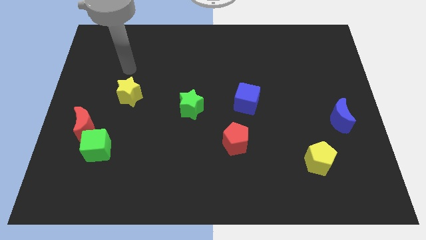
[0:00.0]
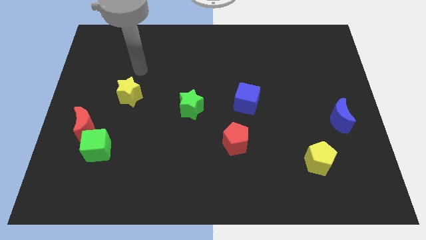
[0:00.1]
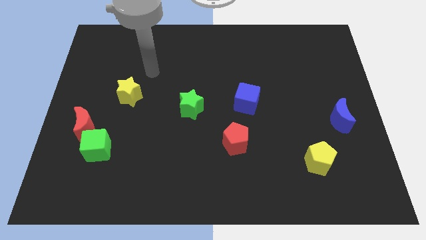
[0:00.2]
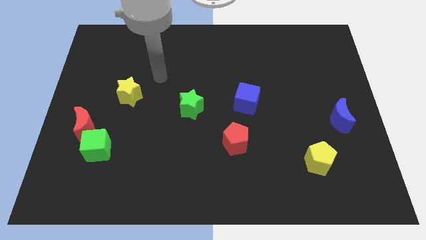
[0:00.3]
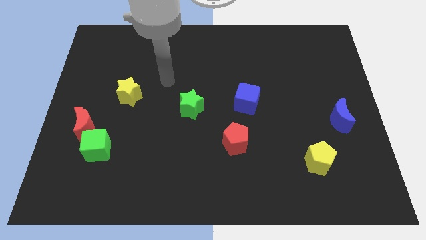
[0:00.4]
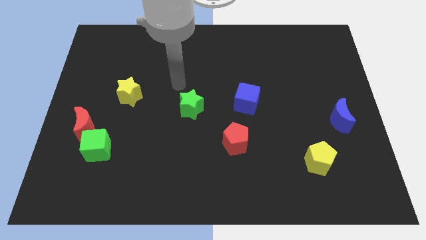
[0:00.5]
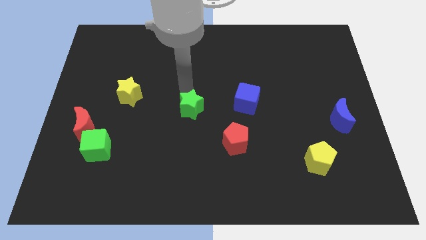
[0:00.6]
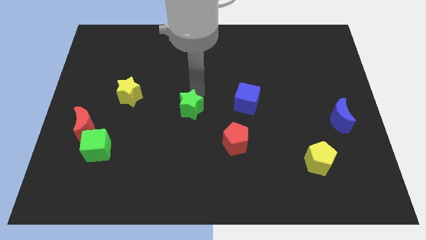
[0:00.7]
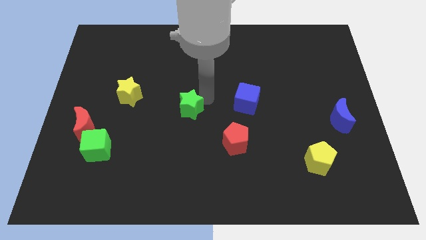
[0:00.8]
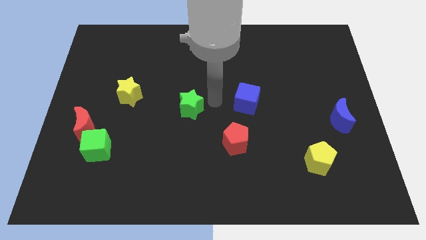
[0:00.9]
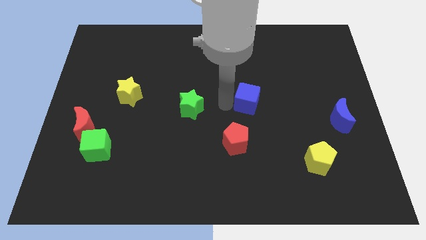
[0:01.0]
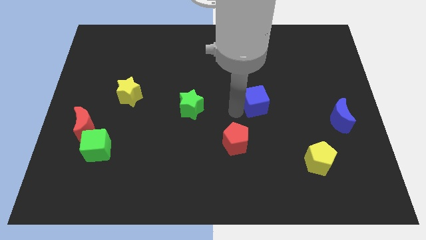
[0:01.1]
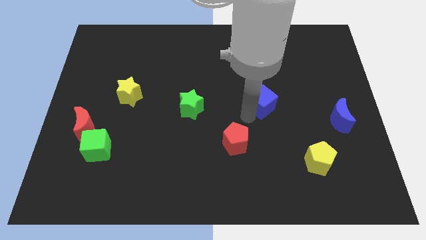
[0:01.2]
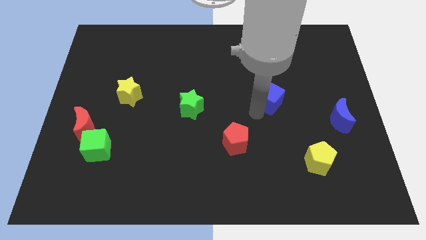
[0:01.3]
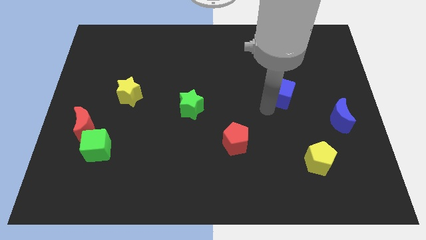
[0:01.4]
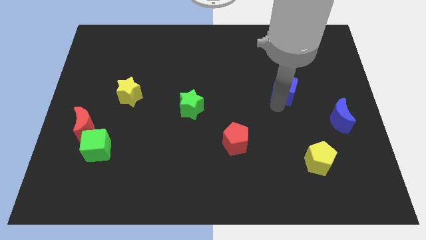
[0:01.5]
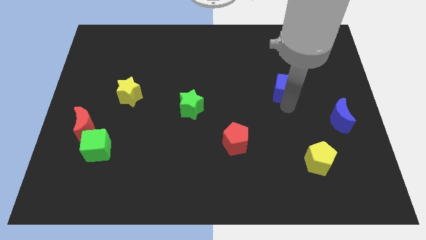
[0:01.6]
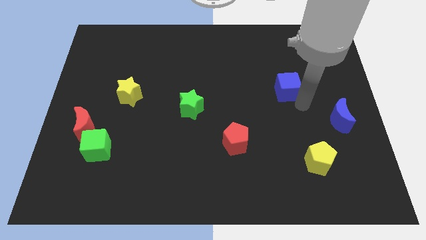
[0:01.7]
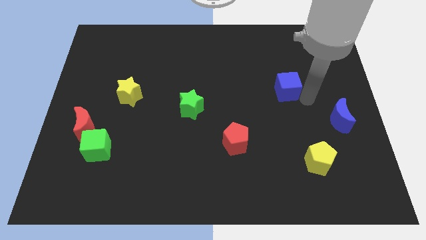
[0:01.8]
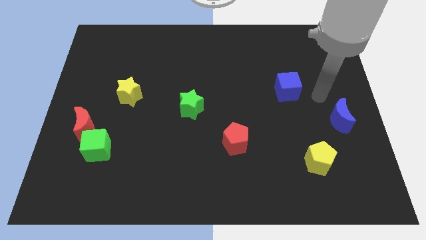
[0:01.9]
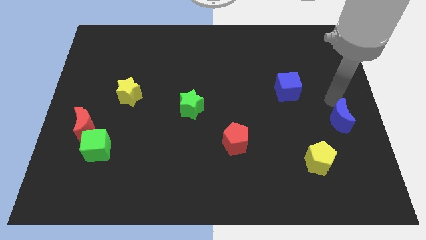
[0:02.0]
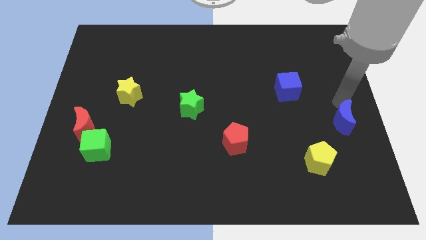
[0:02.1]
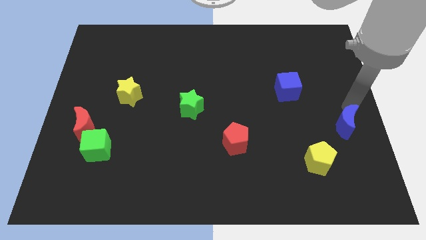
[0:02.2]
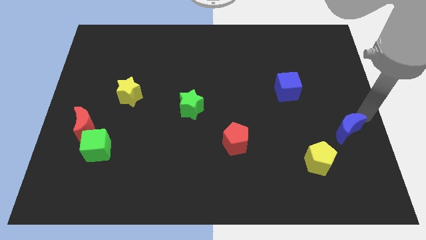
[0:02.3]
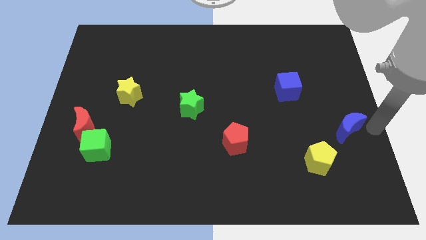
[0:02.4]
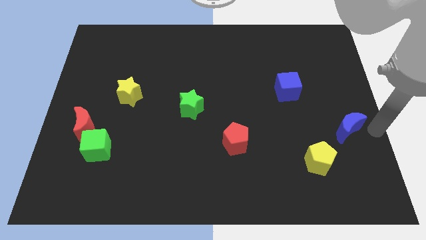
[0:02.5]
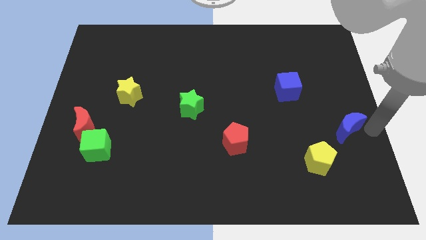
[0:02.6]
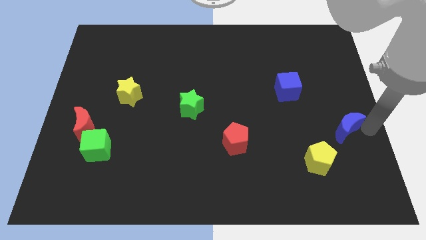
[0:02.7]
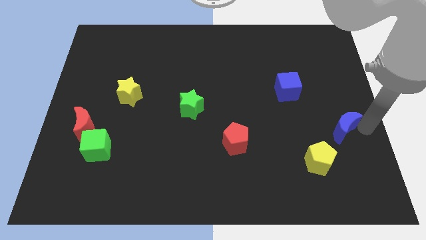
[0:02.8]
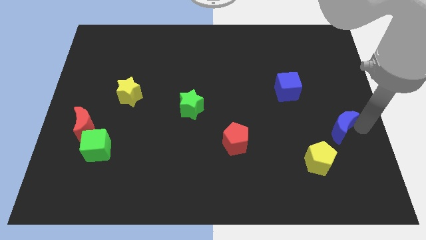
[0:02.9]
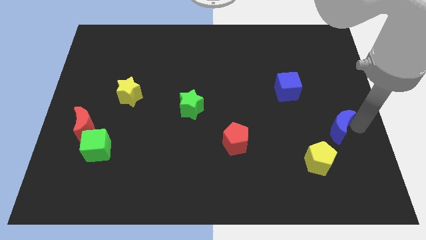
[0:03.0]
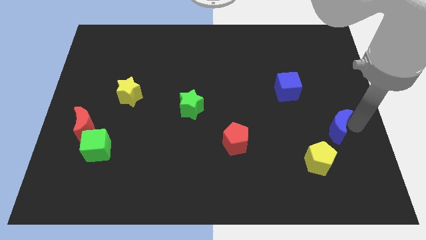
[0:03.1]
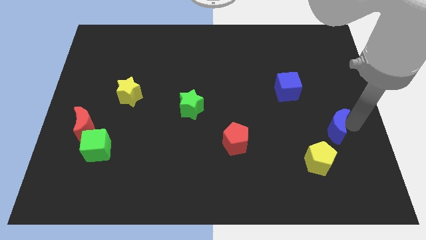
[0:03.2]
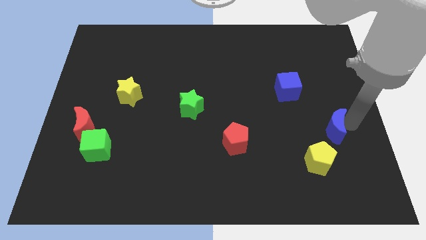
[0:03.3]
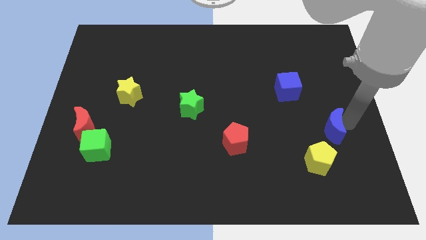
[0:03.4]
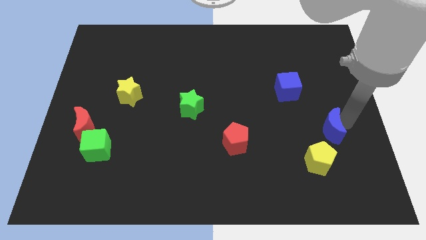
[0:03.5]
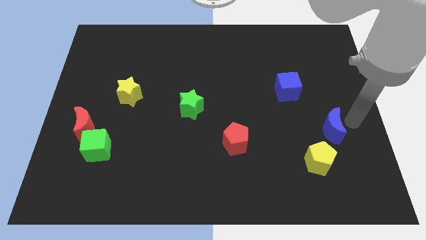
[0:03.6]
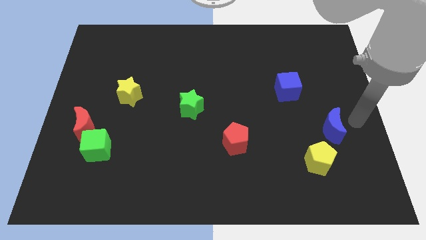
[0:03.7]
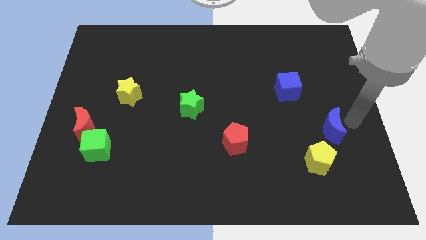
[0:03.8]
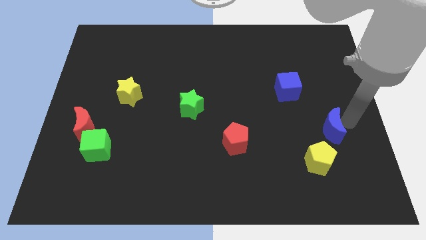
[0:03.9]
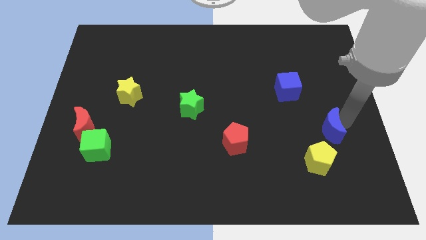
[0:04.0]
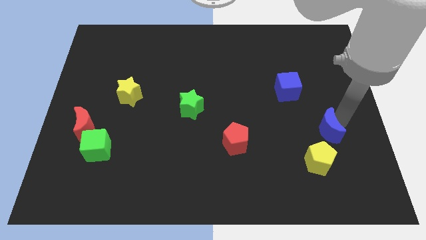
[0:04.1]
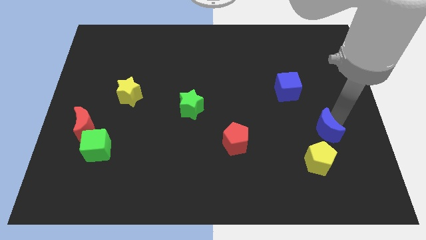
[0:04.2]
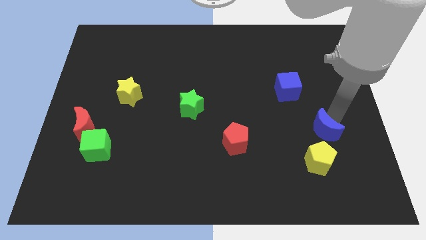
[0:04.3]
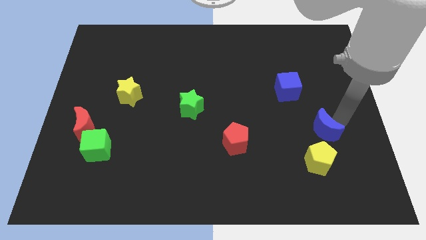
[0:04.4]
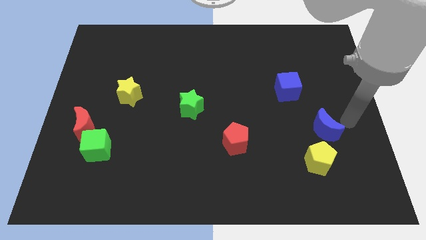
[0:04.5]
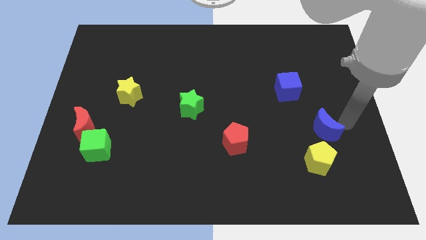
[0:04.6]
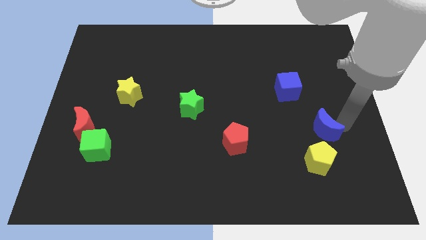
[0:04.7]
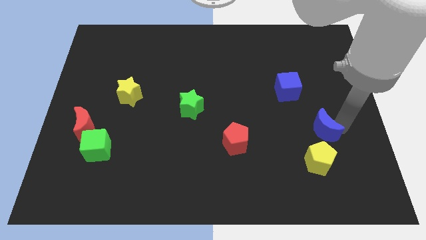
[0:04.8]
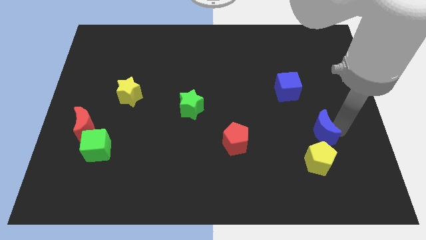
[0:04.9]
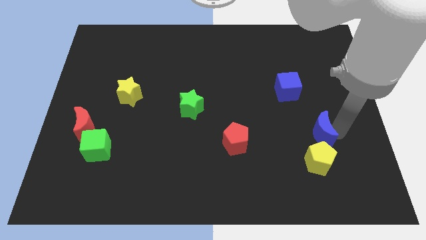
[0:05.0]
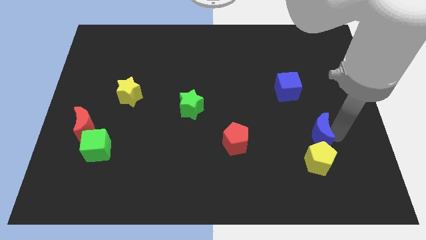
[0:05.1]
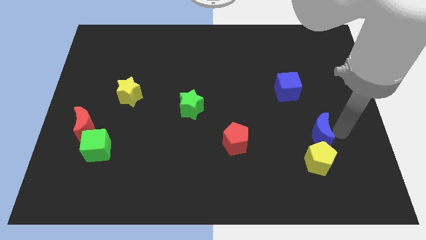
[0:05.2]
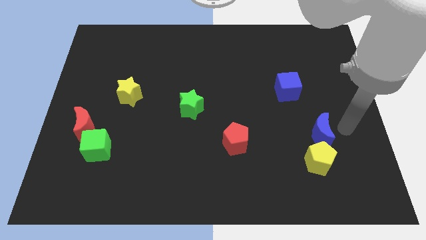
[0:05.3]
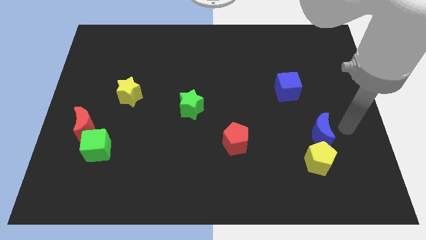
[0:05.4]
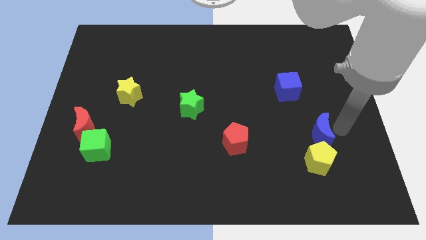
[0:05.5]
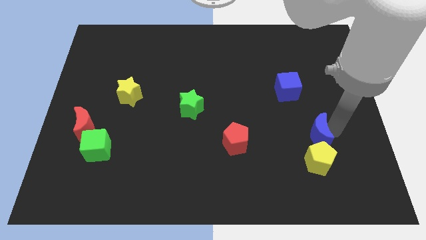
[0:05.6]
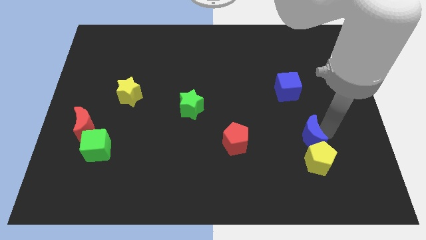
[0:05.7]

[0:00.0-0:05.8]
slide the blue moon diagonally up and to the left of the yellow pentagon

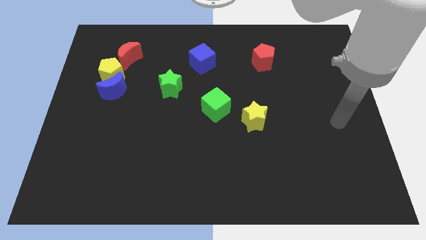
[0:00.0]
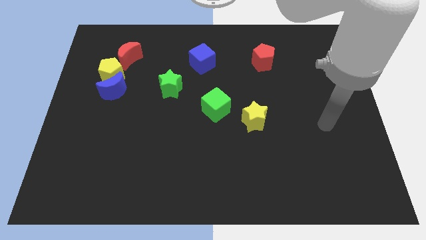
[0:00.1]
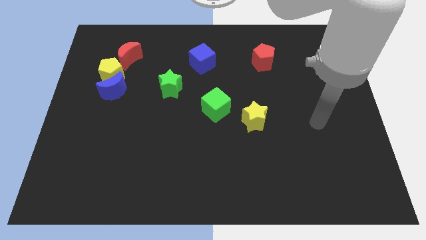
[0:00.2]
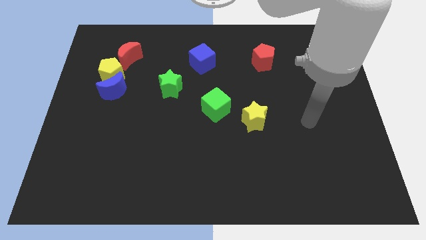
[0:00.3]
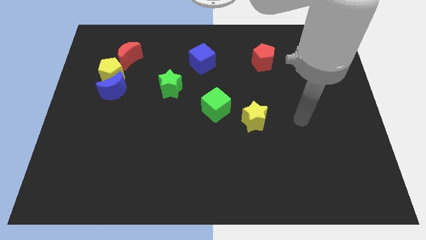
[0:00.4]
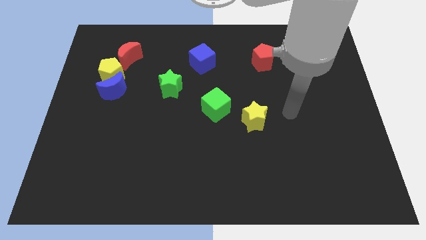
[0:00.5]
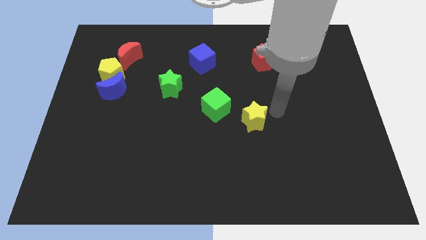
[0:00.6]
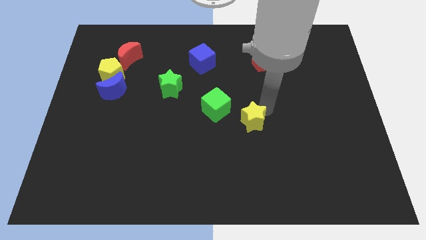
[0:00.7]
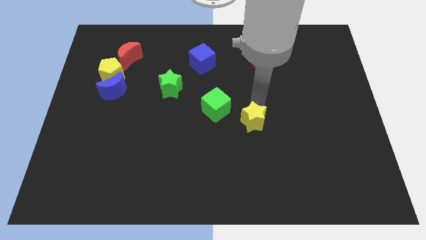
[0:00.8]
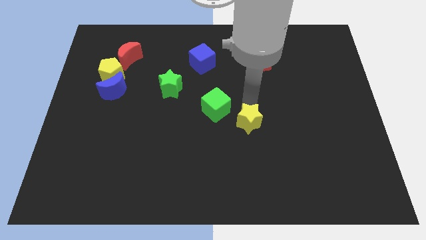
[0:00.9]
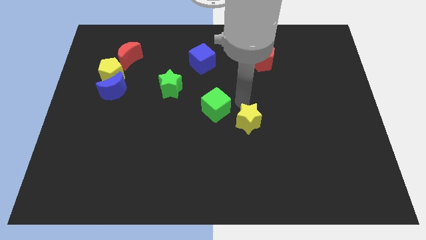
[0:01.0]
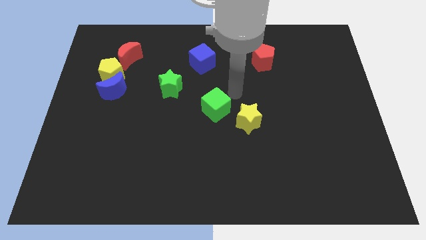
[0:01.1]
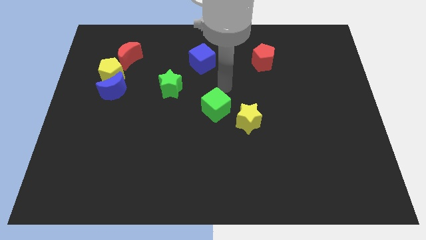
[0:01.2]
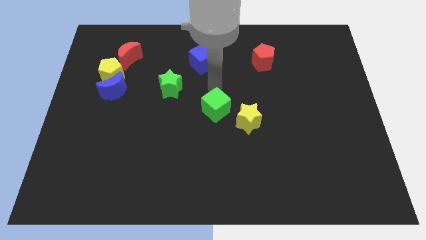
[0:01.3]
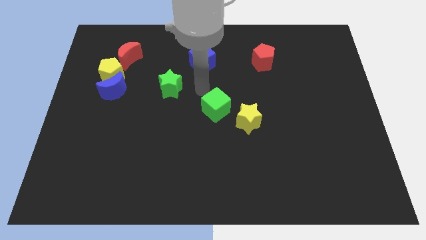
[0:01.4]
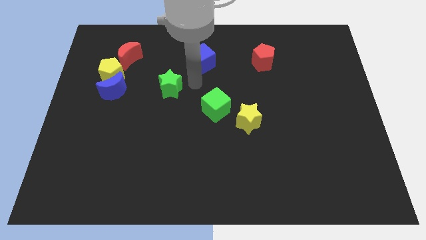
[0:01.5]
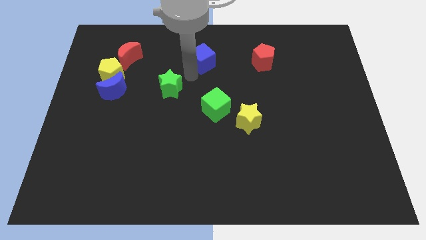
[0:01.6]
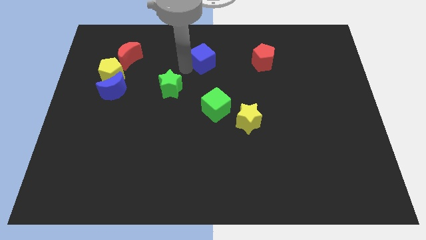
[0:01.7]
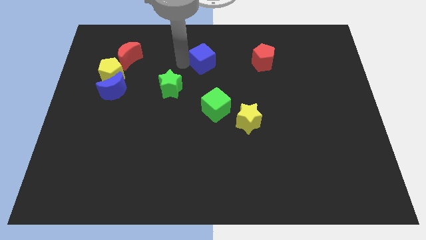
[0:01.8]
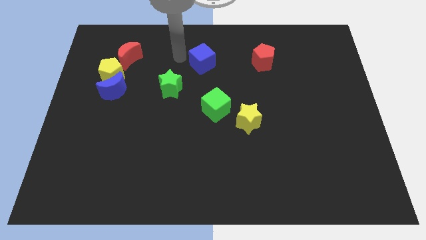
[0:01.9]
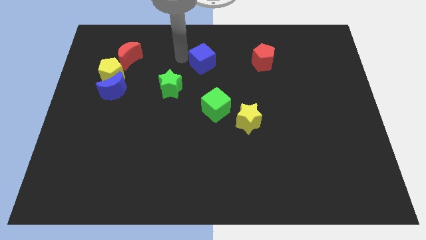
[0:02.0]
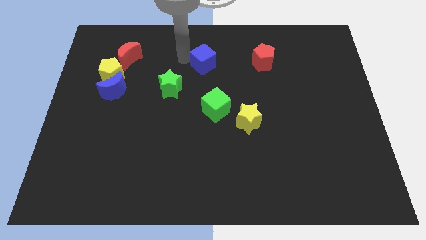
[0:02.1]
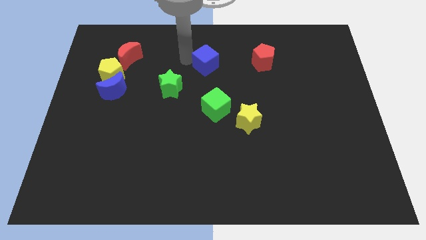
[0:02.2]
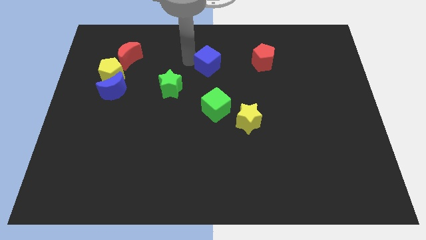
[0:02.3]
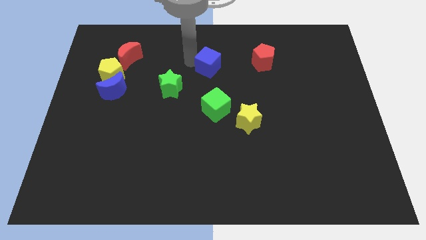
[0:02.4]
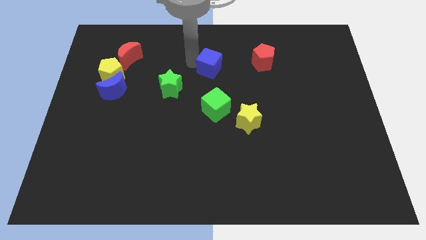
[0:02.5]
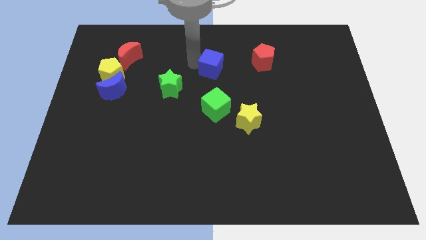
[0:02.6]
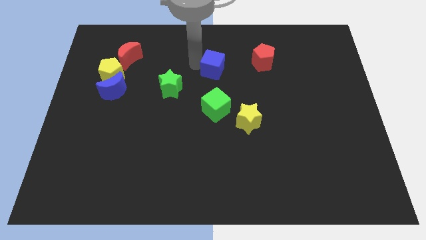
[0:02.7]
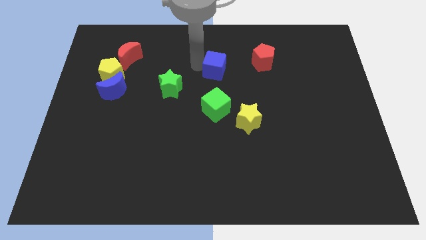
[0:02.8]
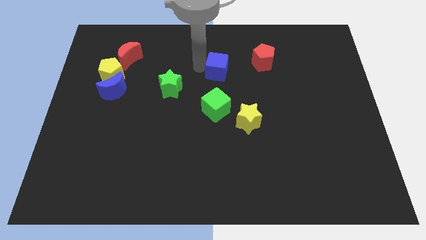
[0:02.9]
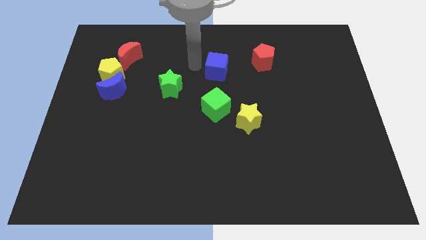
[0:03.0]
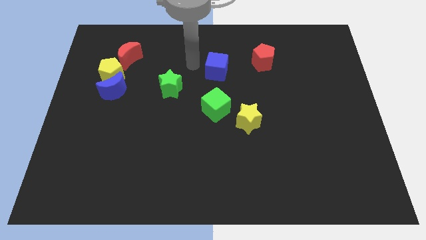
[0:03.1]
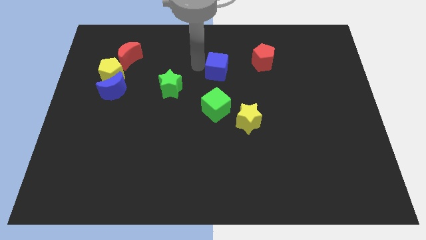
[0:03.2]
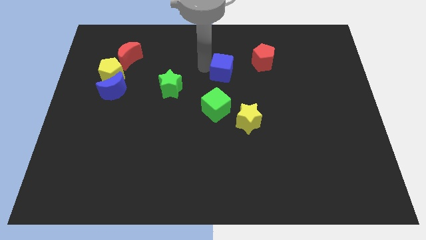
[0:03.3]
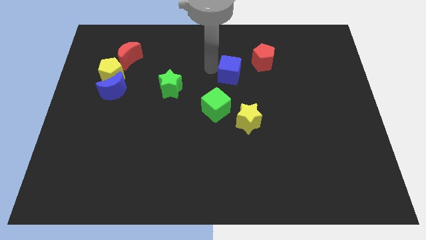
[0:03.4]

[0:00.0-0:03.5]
move the blue cube to the bottom left of the red pentagon
